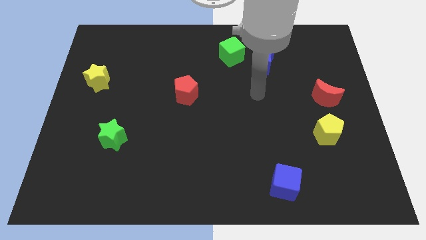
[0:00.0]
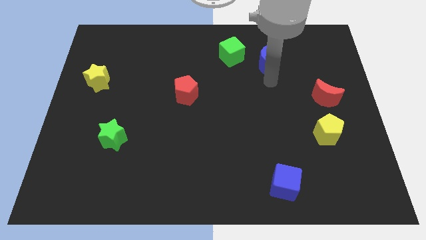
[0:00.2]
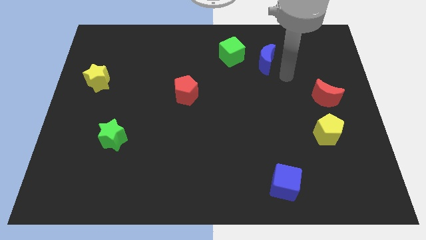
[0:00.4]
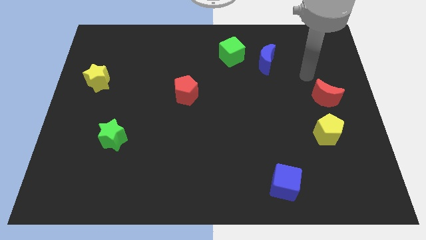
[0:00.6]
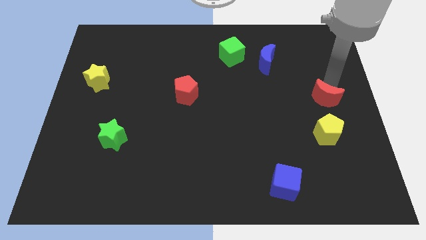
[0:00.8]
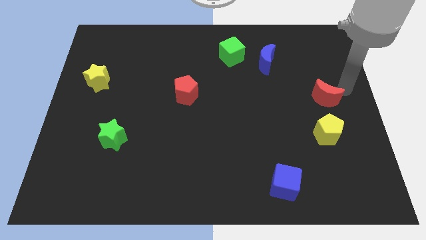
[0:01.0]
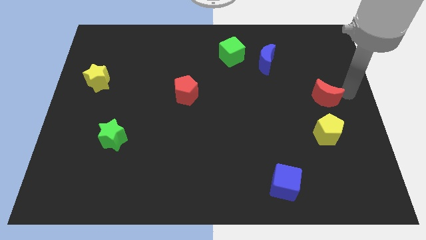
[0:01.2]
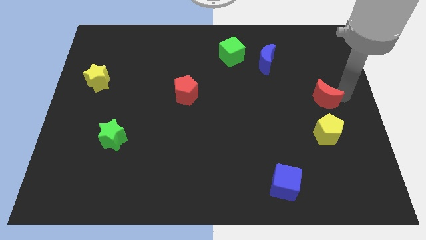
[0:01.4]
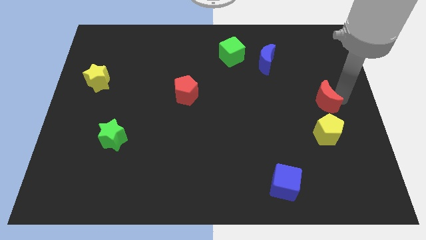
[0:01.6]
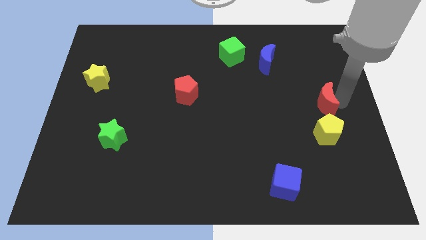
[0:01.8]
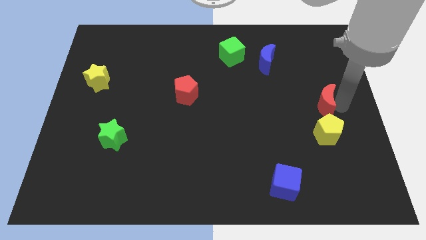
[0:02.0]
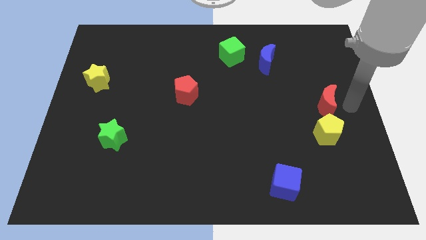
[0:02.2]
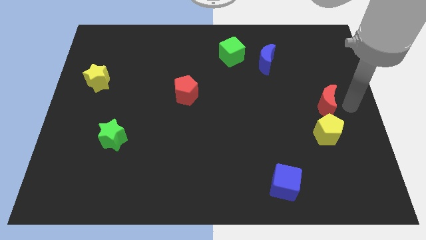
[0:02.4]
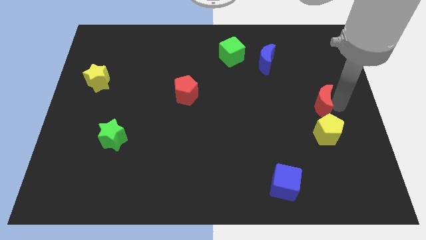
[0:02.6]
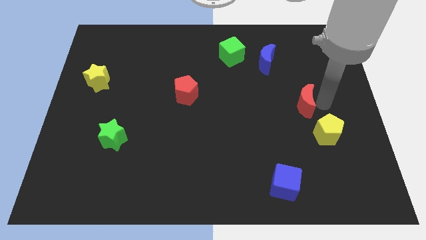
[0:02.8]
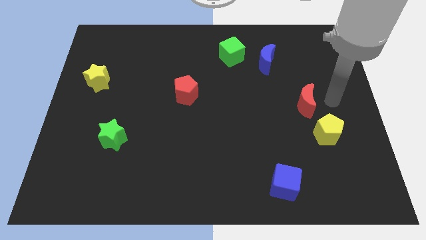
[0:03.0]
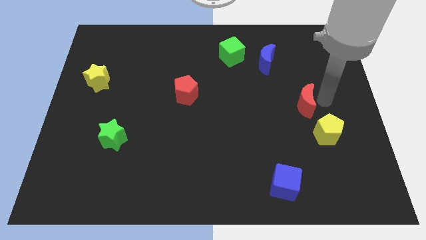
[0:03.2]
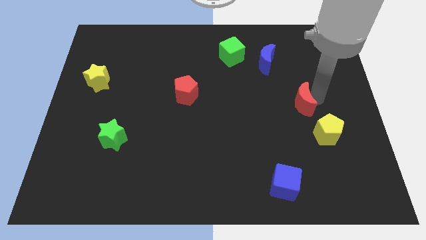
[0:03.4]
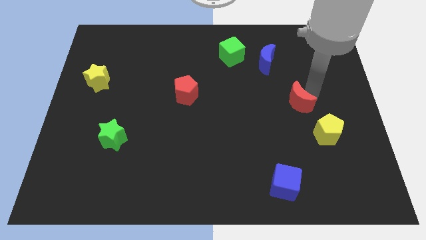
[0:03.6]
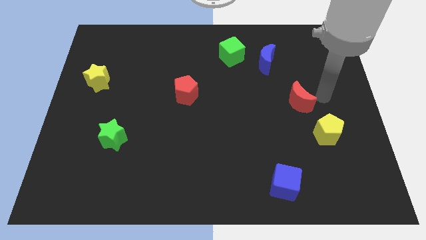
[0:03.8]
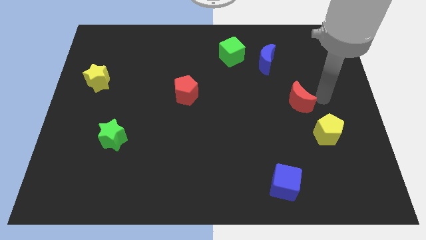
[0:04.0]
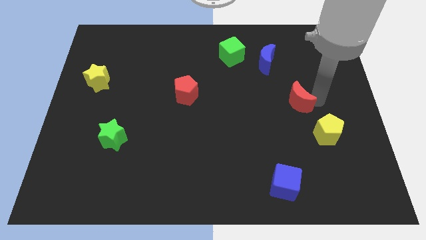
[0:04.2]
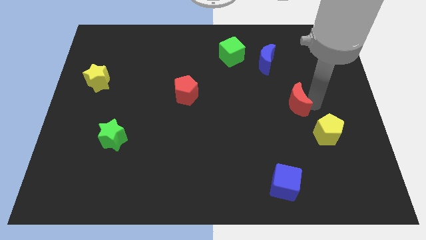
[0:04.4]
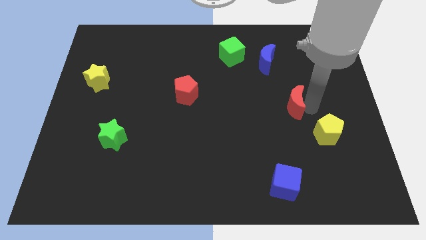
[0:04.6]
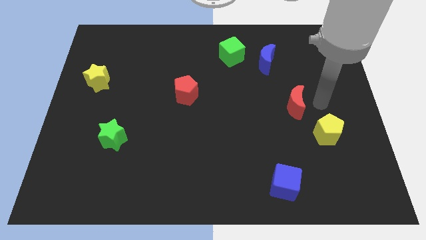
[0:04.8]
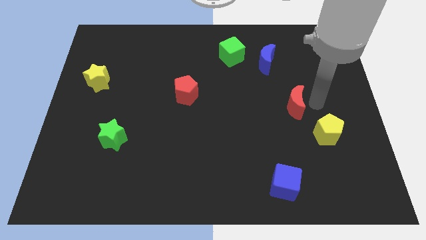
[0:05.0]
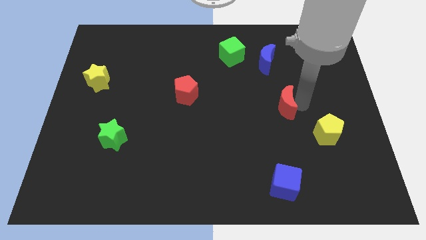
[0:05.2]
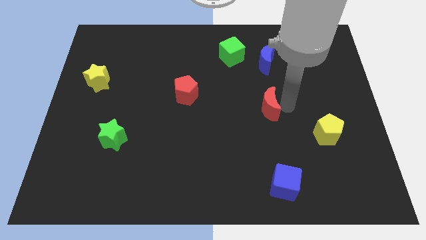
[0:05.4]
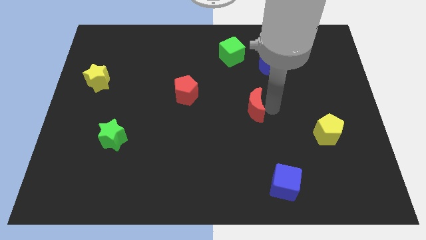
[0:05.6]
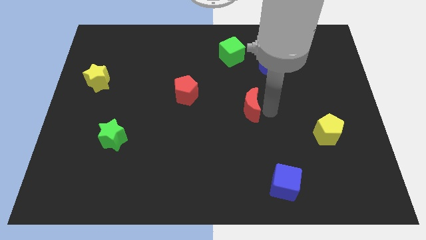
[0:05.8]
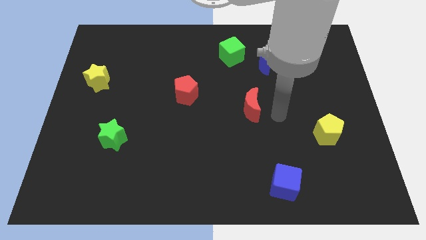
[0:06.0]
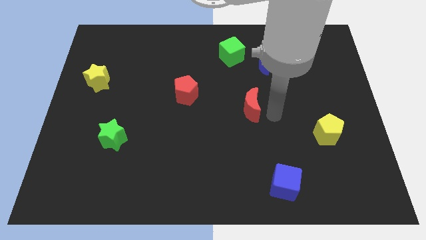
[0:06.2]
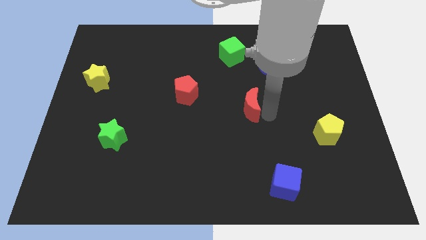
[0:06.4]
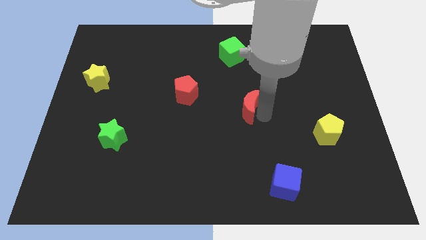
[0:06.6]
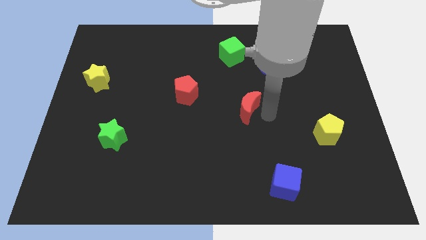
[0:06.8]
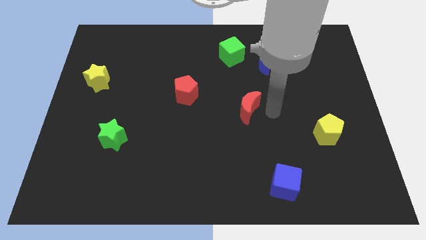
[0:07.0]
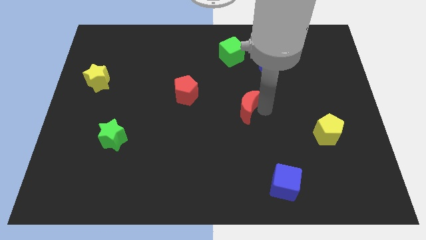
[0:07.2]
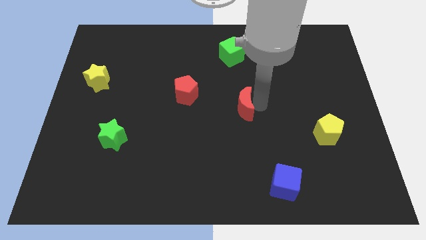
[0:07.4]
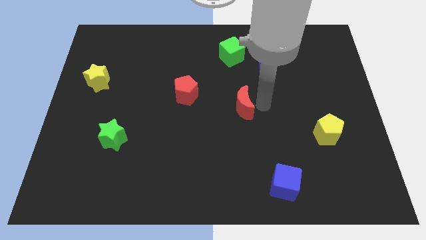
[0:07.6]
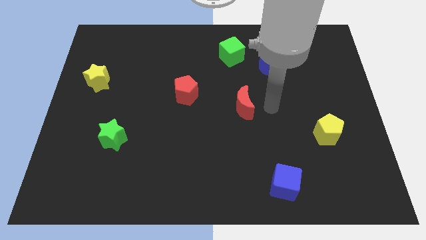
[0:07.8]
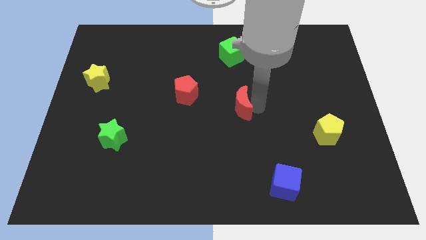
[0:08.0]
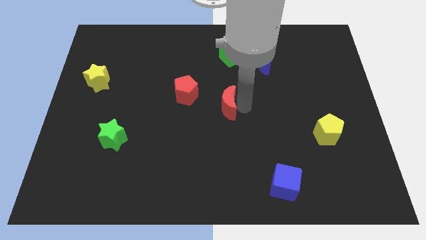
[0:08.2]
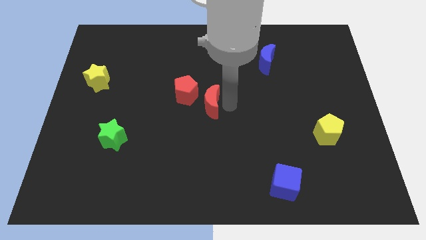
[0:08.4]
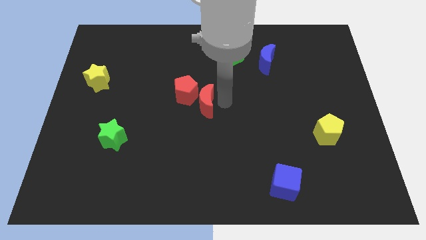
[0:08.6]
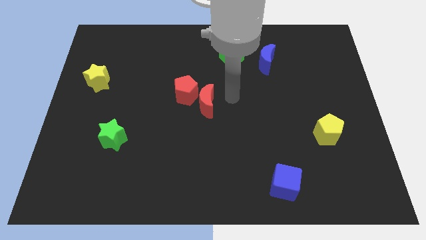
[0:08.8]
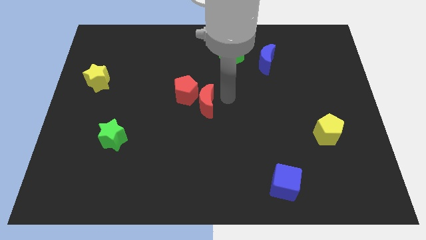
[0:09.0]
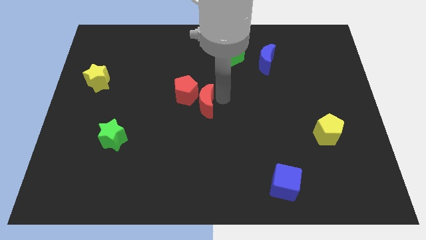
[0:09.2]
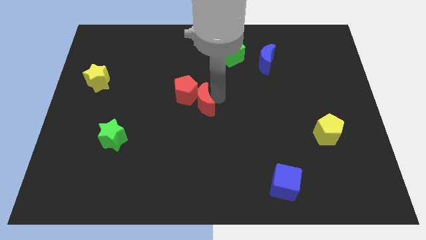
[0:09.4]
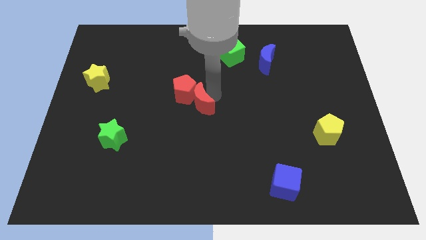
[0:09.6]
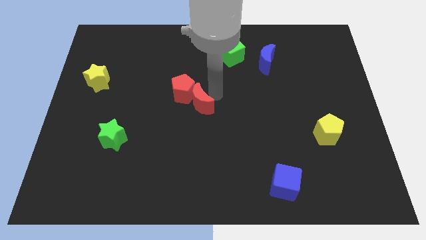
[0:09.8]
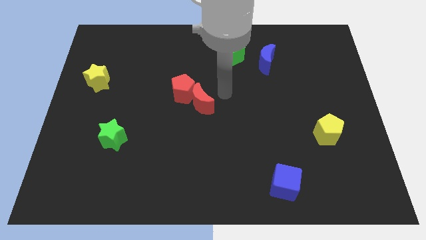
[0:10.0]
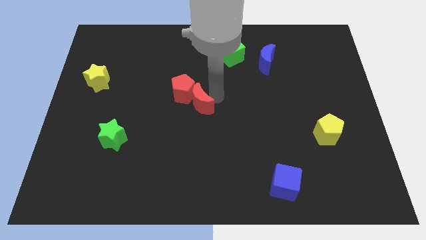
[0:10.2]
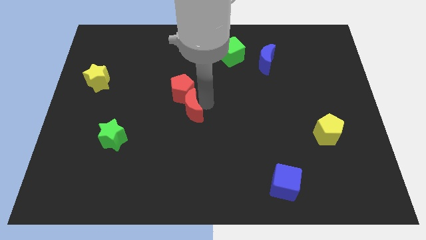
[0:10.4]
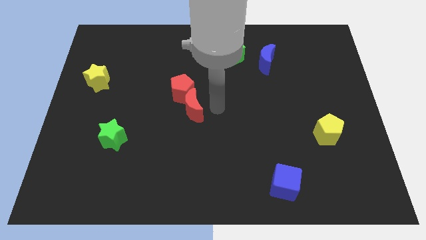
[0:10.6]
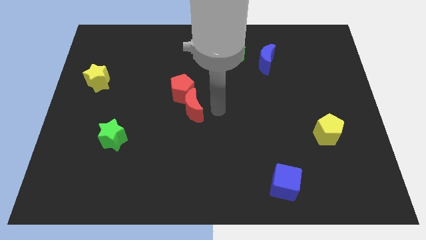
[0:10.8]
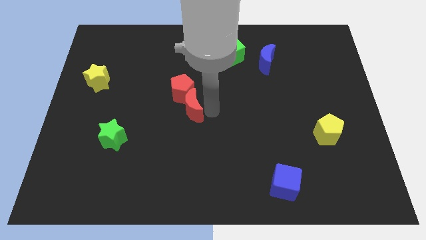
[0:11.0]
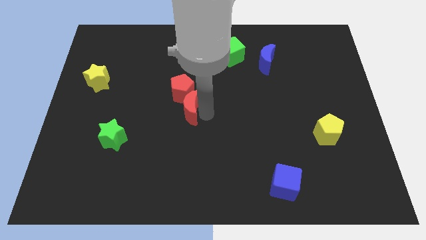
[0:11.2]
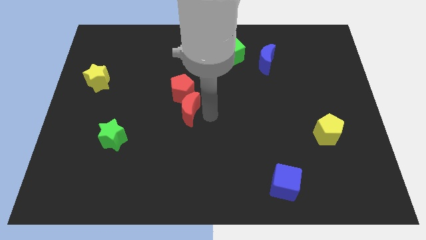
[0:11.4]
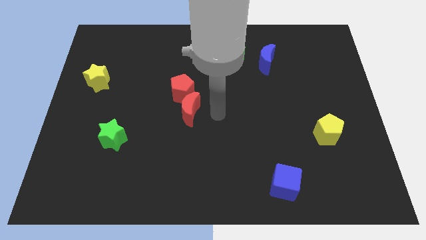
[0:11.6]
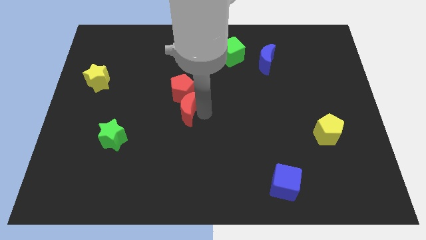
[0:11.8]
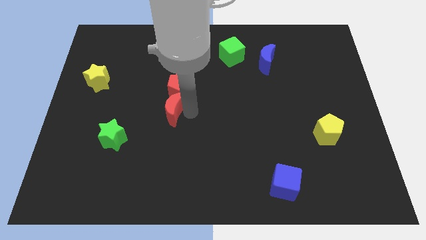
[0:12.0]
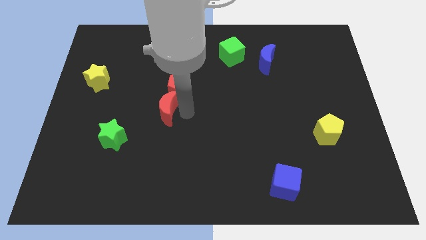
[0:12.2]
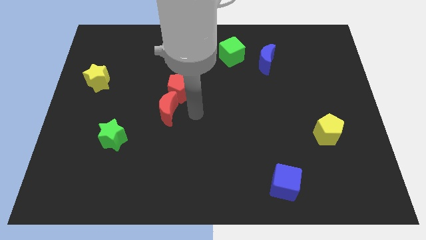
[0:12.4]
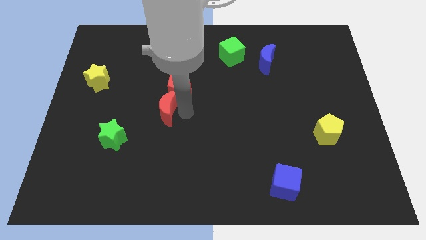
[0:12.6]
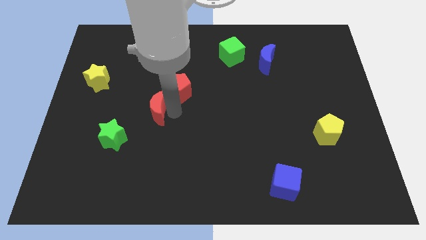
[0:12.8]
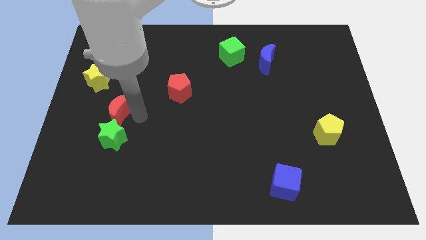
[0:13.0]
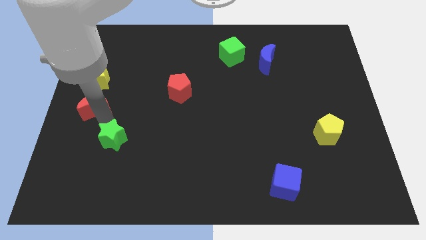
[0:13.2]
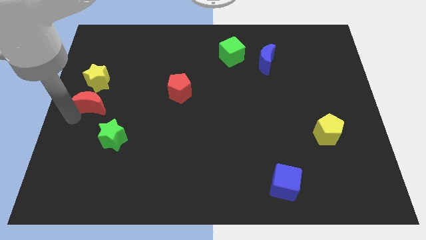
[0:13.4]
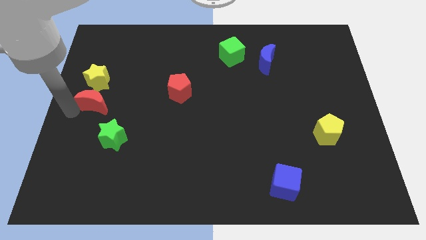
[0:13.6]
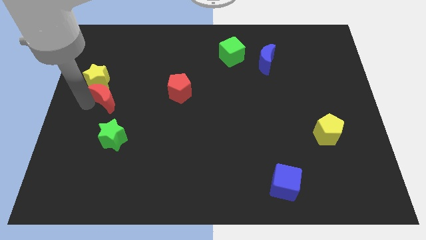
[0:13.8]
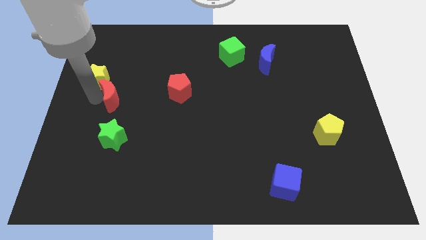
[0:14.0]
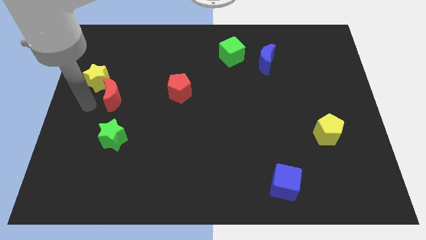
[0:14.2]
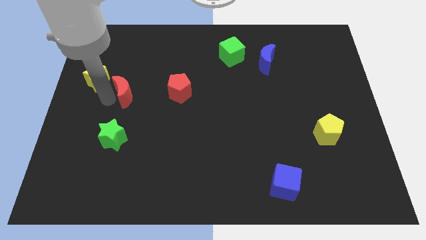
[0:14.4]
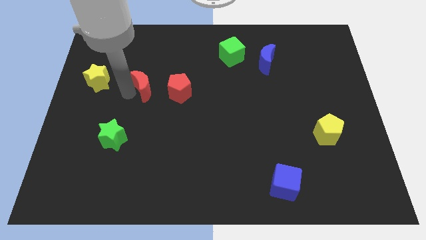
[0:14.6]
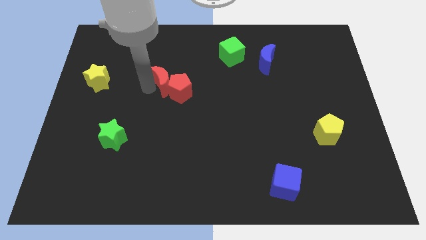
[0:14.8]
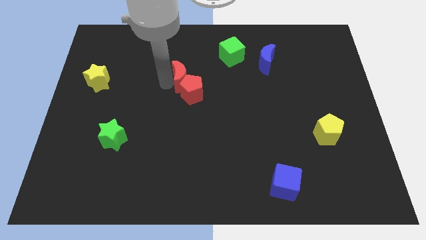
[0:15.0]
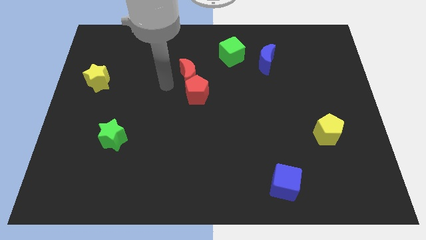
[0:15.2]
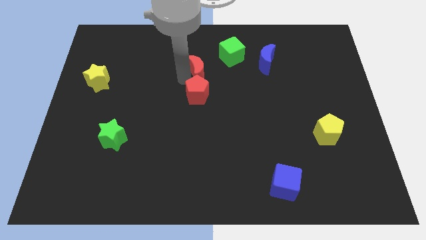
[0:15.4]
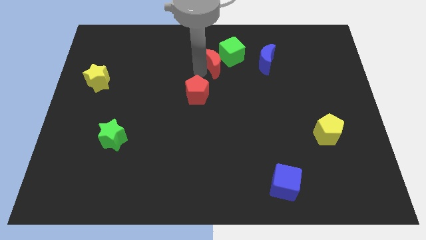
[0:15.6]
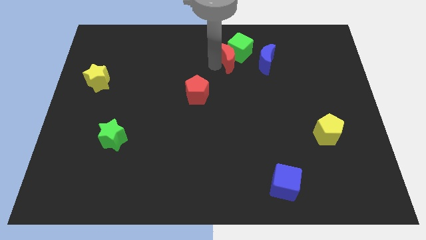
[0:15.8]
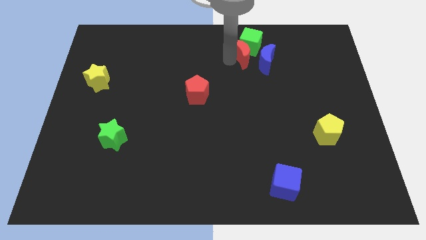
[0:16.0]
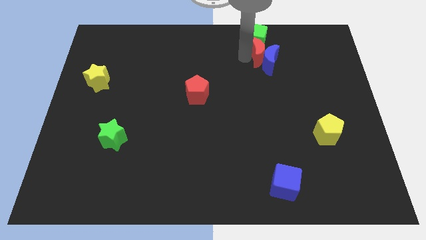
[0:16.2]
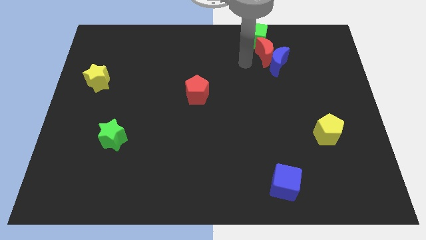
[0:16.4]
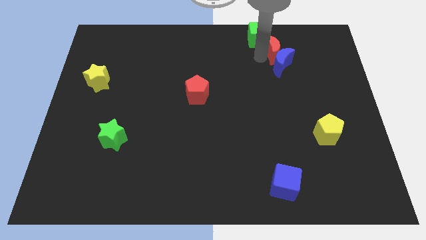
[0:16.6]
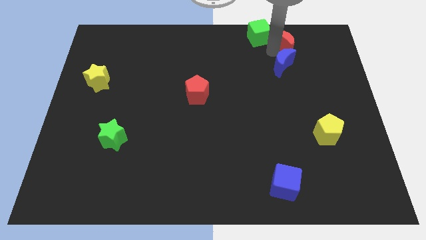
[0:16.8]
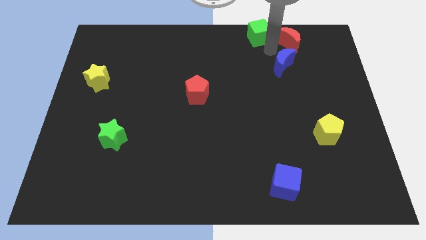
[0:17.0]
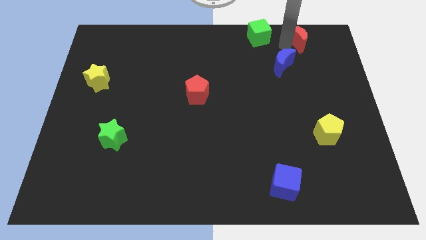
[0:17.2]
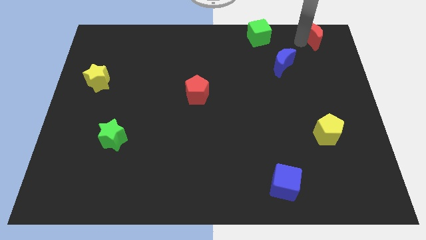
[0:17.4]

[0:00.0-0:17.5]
put the red moon to the top right of the board
